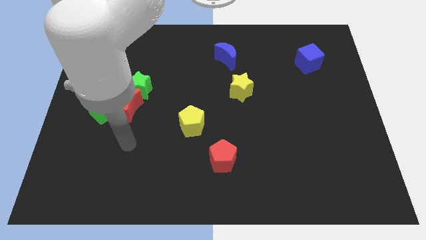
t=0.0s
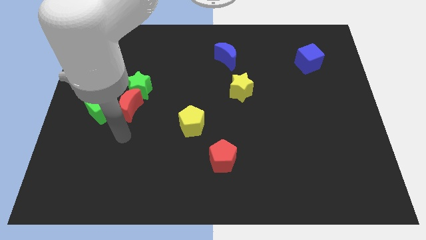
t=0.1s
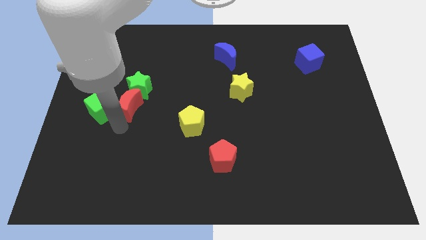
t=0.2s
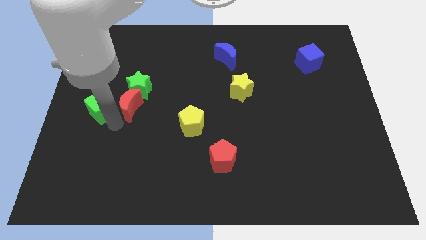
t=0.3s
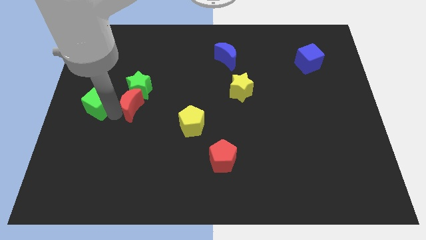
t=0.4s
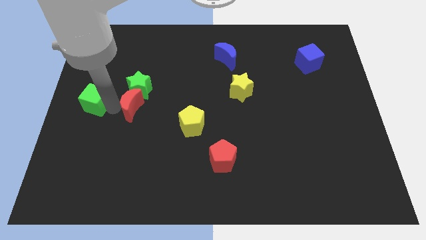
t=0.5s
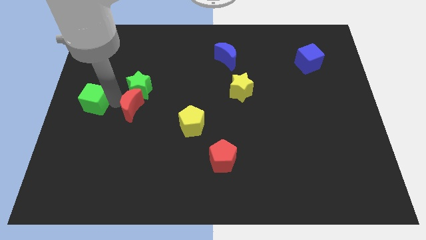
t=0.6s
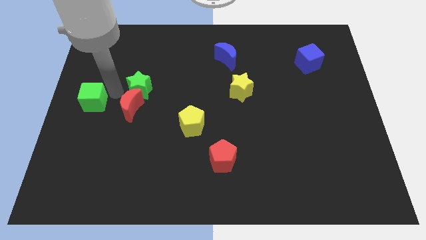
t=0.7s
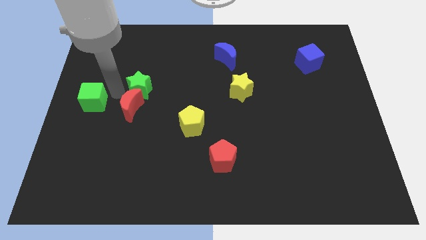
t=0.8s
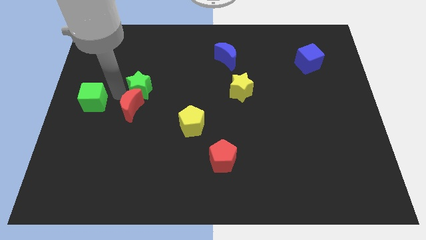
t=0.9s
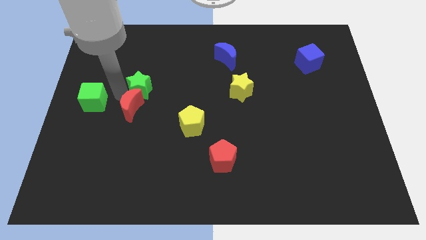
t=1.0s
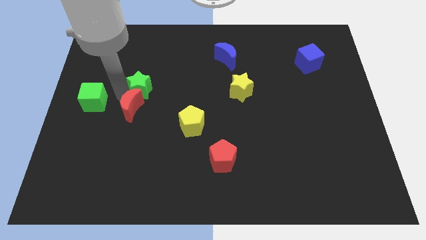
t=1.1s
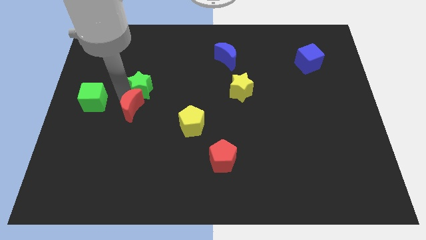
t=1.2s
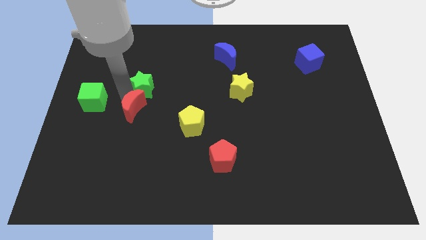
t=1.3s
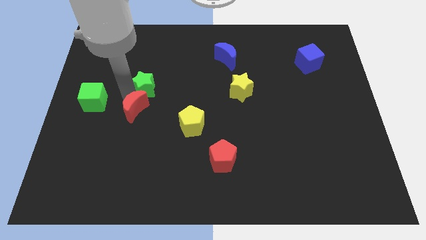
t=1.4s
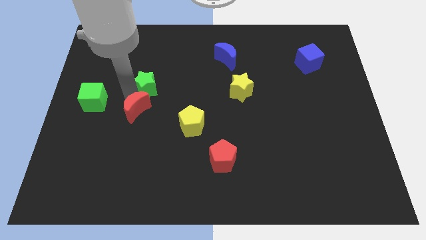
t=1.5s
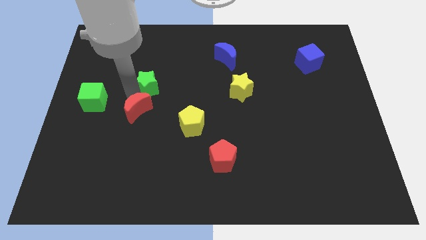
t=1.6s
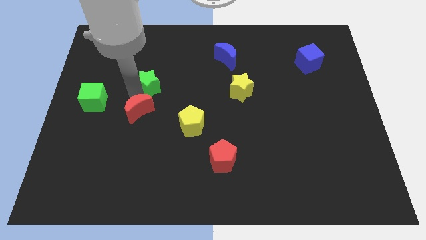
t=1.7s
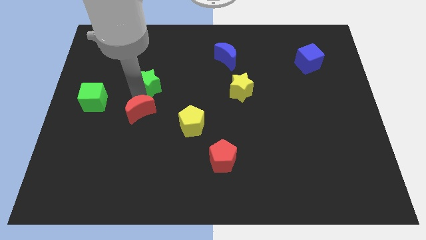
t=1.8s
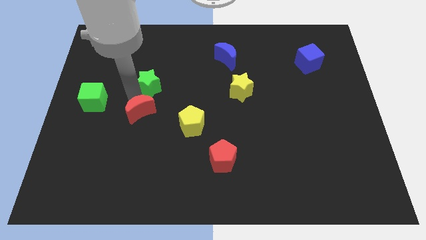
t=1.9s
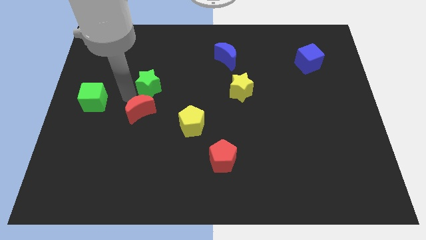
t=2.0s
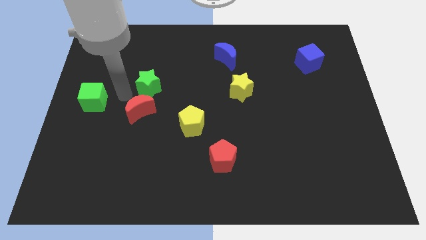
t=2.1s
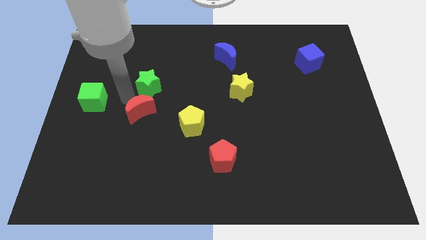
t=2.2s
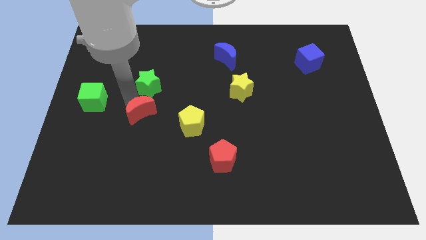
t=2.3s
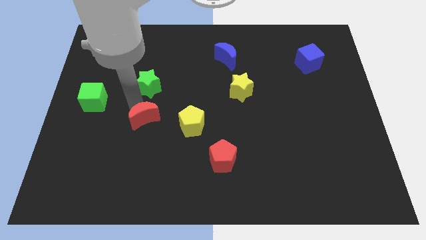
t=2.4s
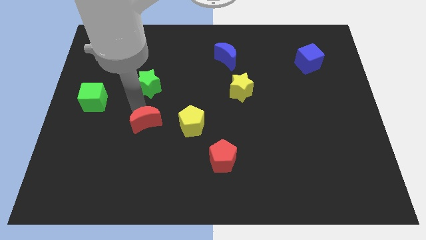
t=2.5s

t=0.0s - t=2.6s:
pull the red moon apart from the green star and green cube

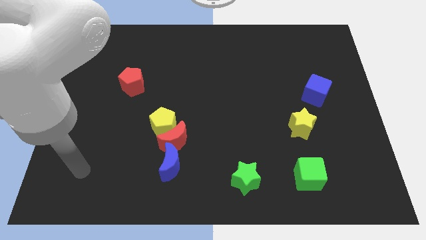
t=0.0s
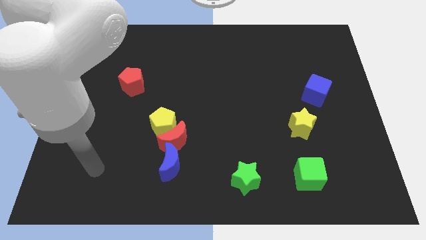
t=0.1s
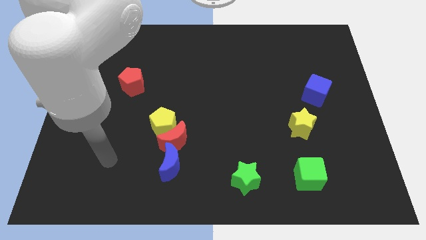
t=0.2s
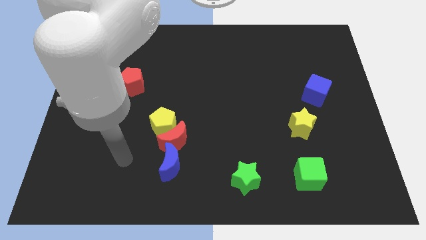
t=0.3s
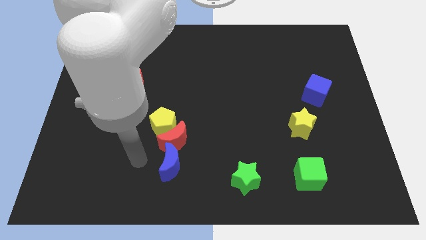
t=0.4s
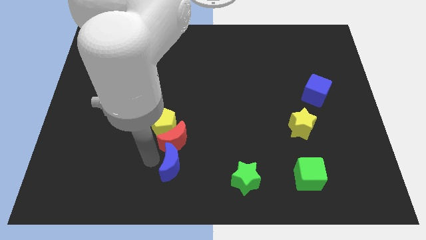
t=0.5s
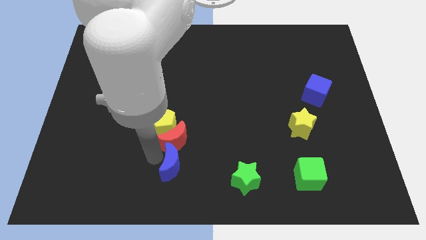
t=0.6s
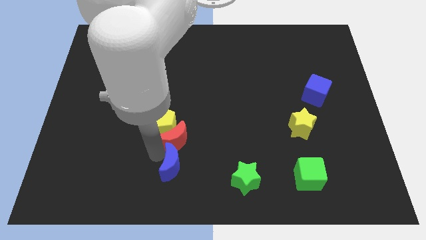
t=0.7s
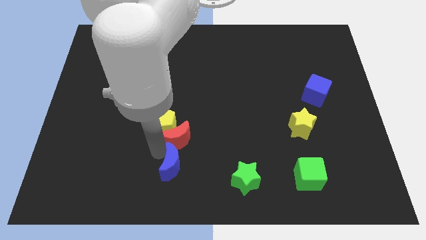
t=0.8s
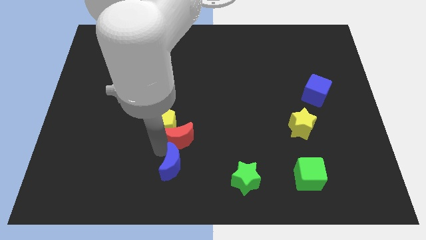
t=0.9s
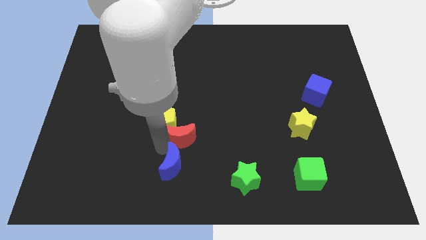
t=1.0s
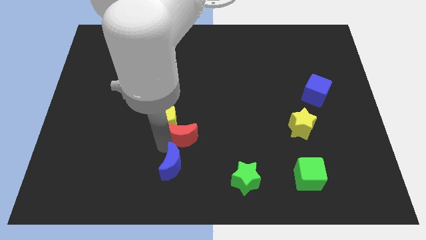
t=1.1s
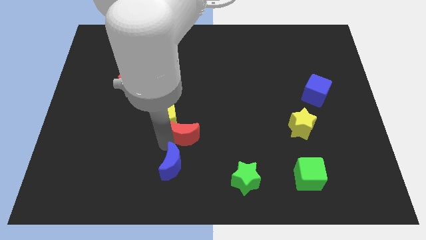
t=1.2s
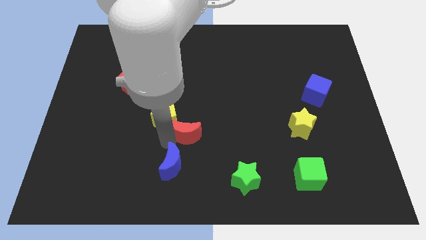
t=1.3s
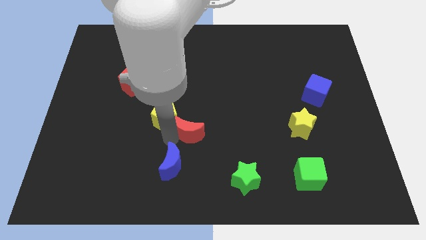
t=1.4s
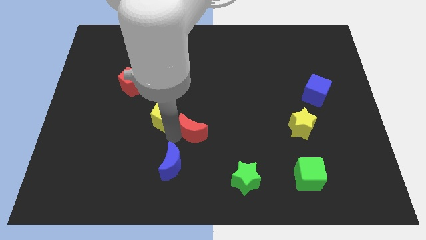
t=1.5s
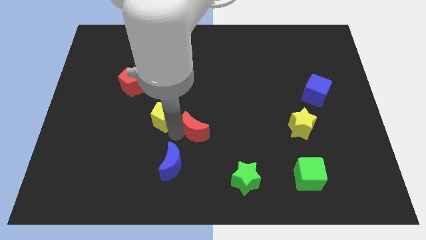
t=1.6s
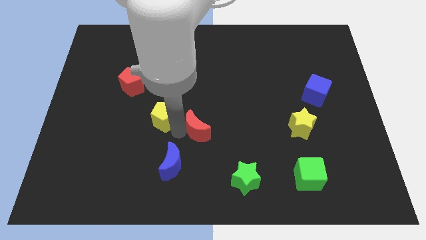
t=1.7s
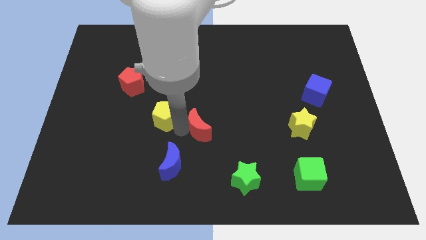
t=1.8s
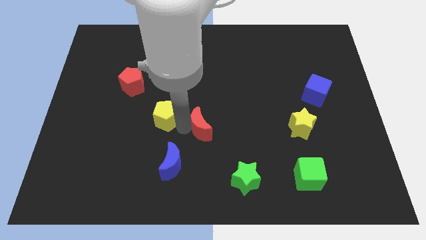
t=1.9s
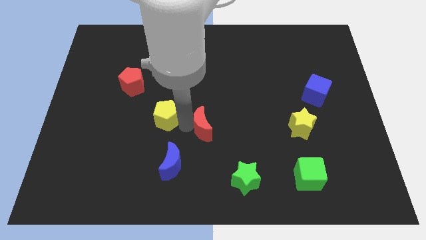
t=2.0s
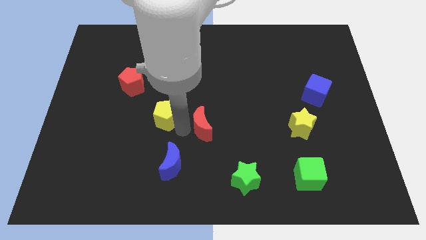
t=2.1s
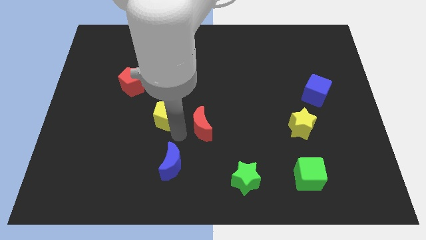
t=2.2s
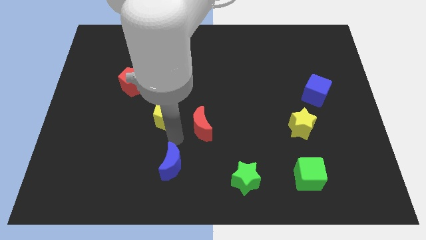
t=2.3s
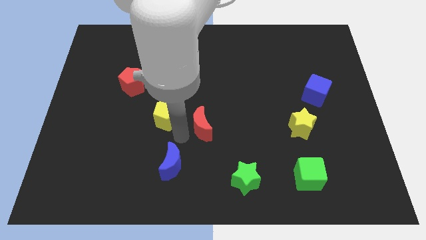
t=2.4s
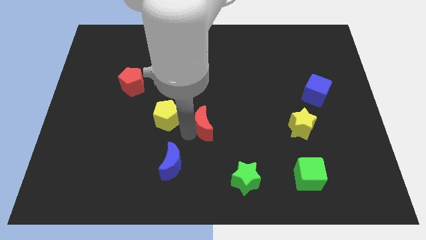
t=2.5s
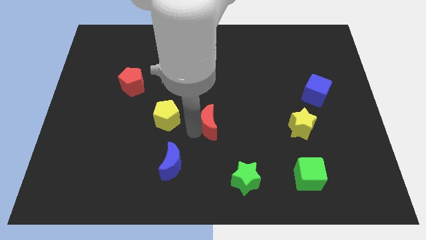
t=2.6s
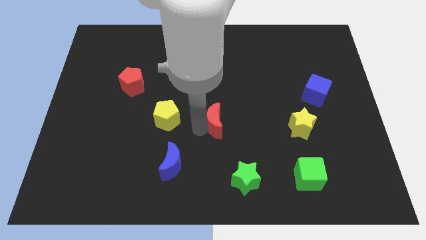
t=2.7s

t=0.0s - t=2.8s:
pull the red moon apart from the yellow pentagon and blue moon

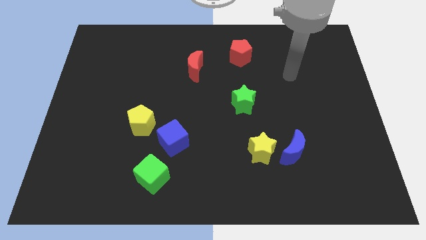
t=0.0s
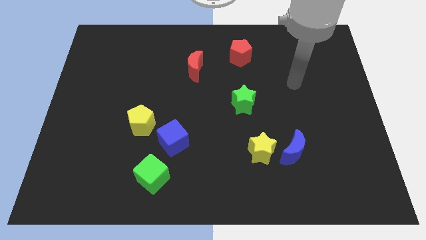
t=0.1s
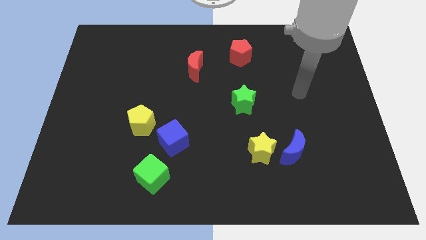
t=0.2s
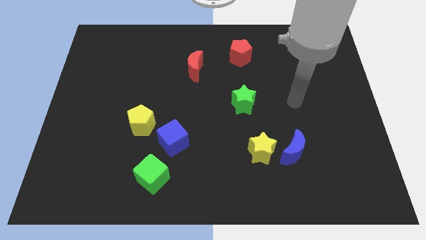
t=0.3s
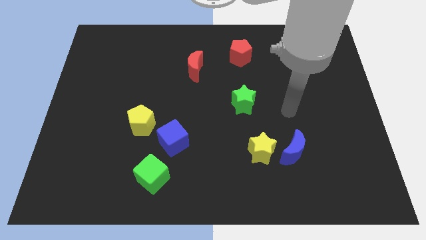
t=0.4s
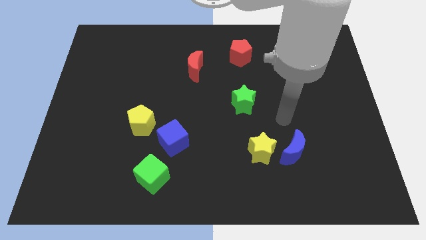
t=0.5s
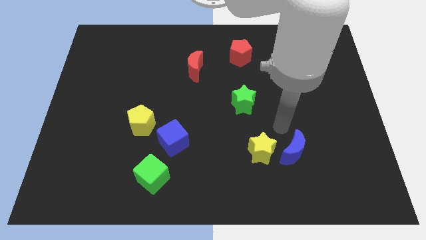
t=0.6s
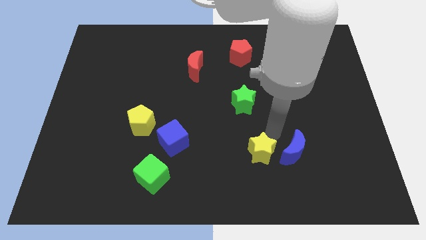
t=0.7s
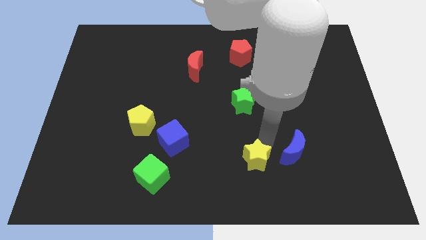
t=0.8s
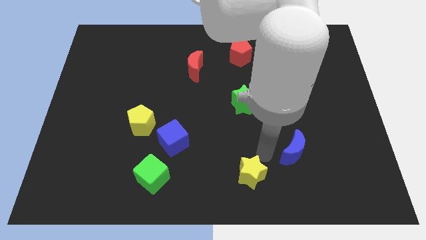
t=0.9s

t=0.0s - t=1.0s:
pull the blue moon apart from the yellow star

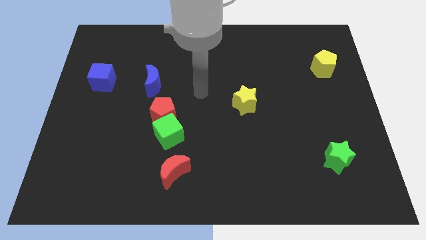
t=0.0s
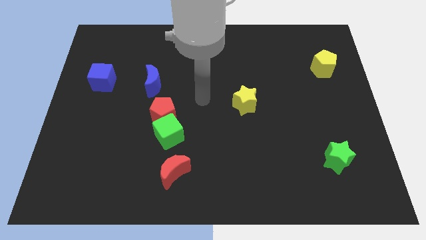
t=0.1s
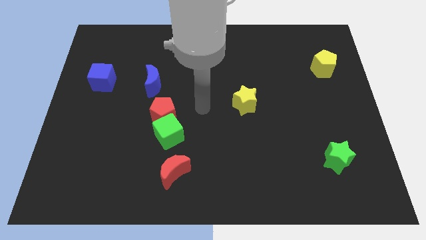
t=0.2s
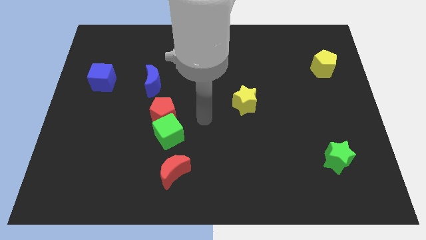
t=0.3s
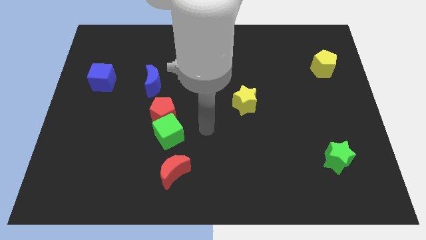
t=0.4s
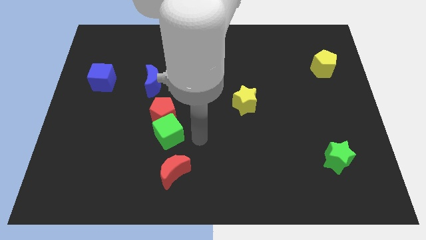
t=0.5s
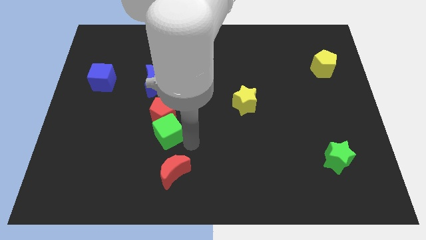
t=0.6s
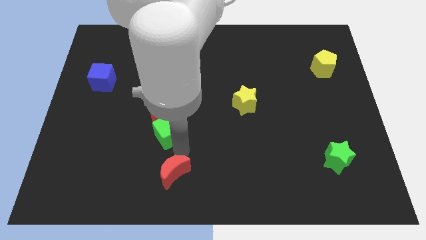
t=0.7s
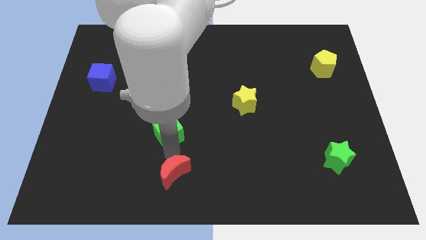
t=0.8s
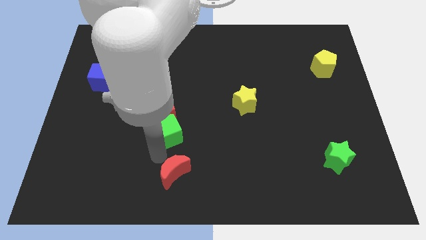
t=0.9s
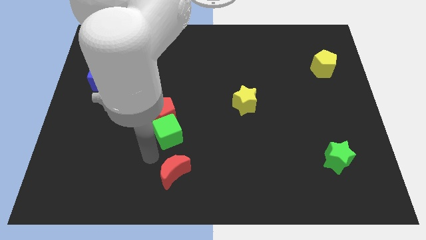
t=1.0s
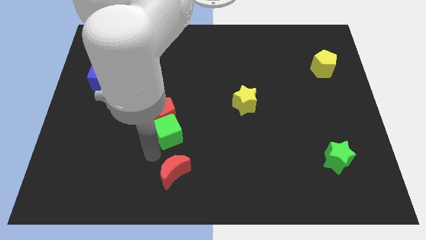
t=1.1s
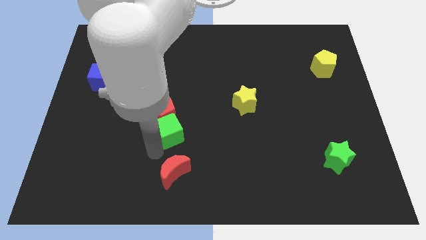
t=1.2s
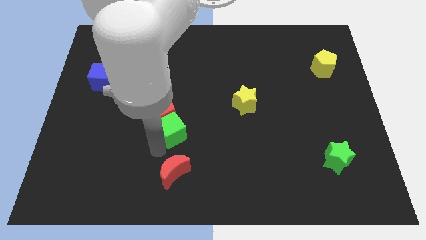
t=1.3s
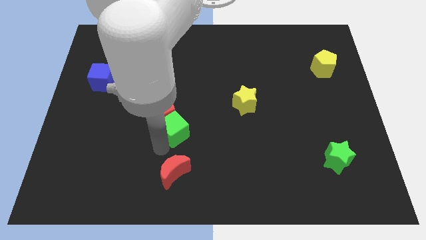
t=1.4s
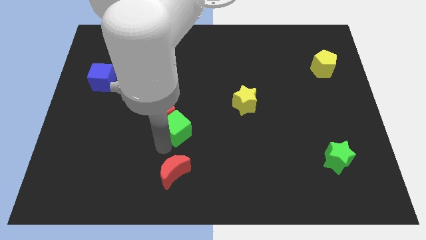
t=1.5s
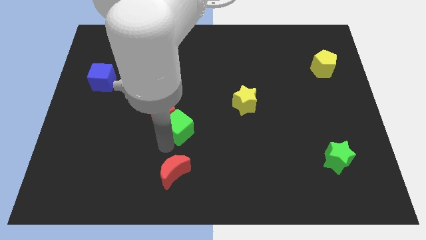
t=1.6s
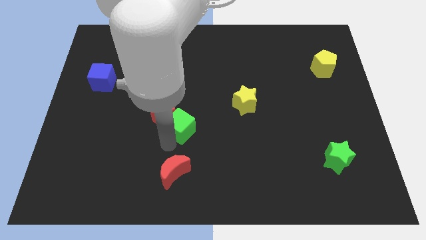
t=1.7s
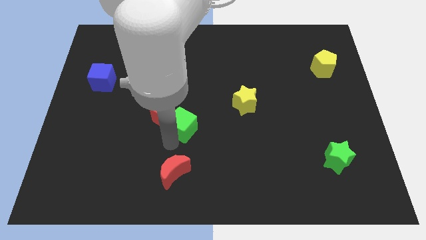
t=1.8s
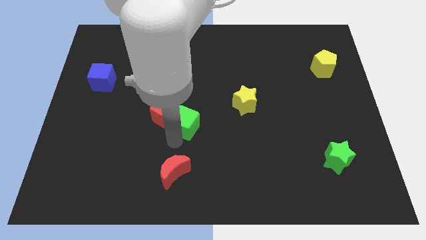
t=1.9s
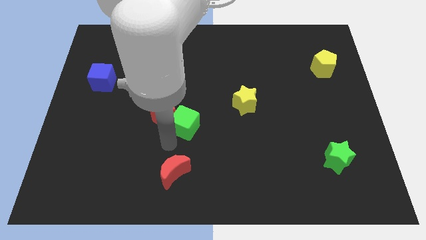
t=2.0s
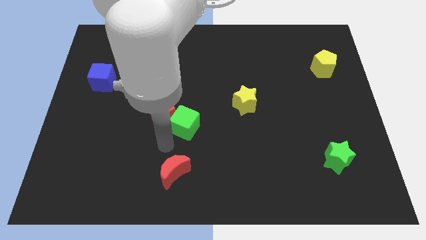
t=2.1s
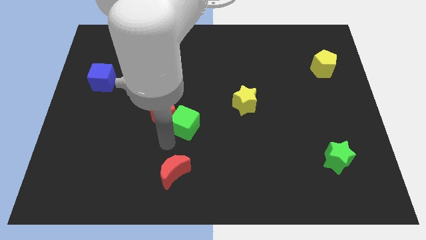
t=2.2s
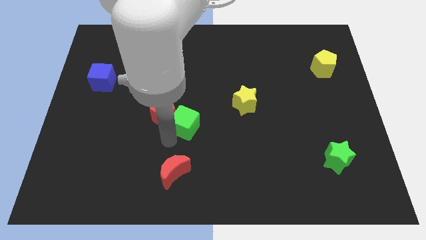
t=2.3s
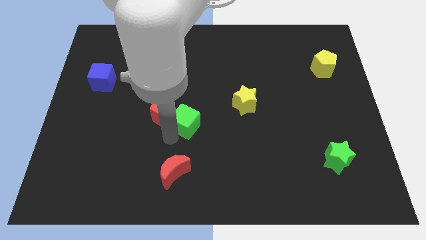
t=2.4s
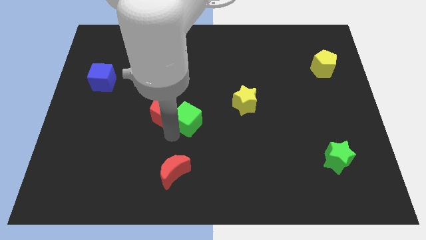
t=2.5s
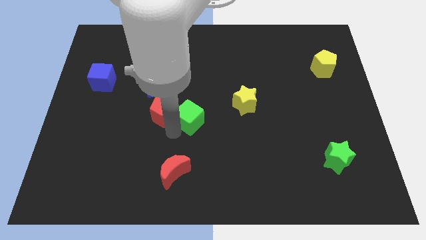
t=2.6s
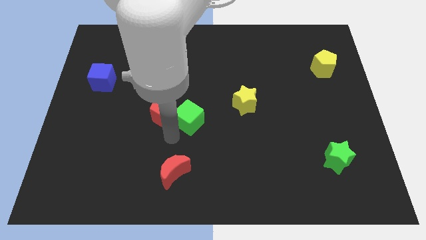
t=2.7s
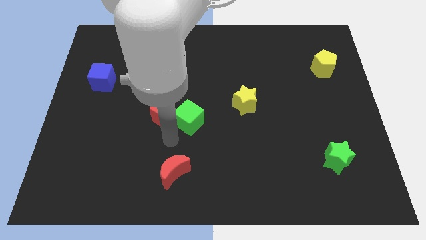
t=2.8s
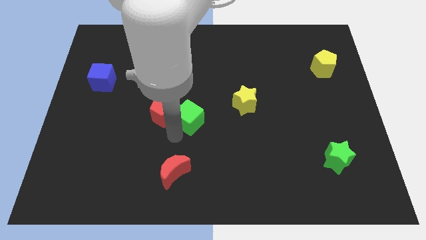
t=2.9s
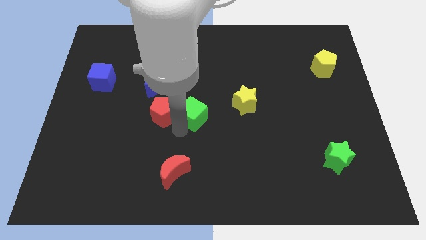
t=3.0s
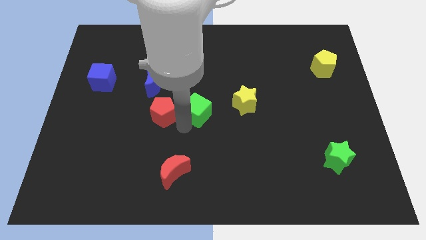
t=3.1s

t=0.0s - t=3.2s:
separate the green cube from the red pentagon and red moon
